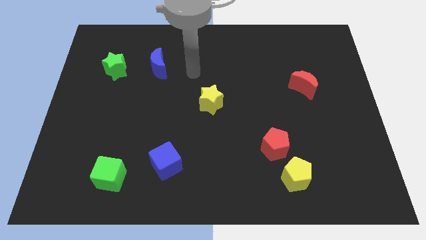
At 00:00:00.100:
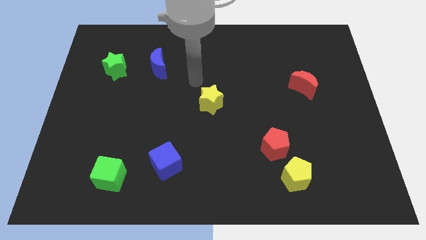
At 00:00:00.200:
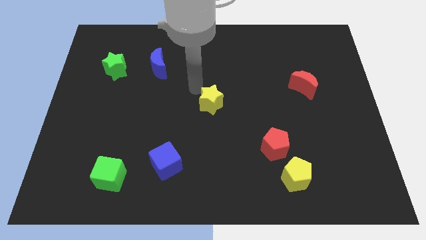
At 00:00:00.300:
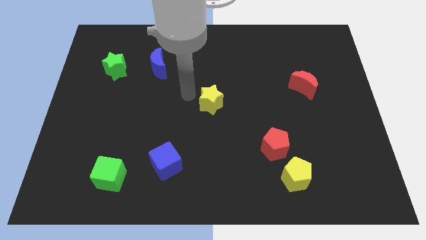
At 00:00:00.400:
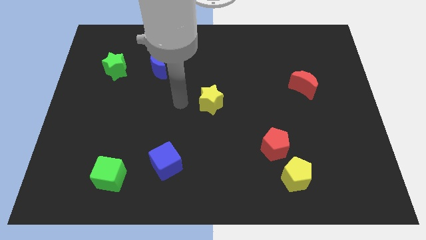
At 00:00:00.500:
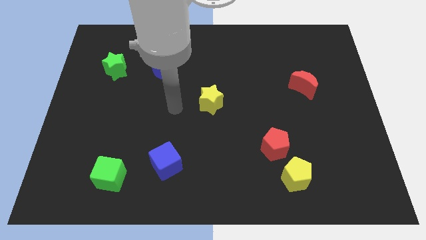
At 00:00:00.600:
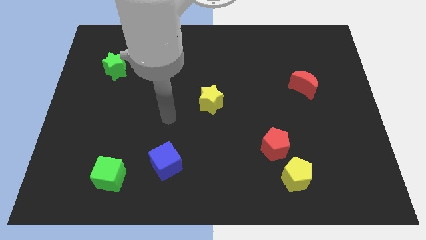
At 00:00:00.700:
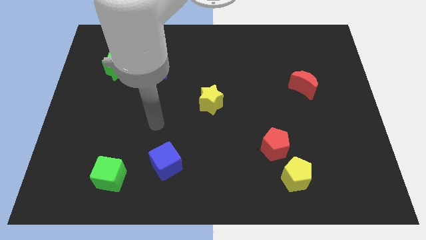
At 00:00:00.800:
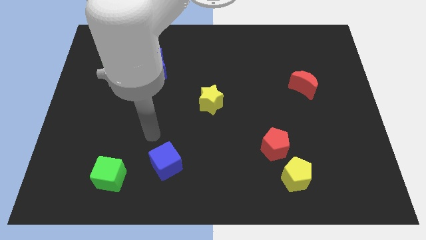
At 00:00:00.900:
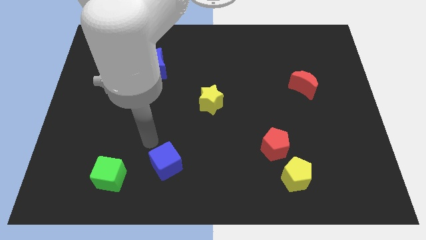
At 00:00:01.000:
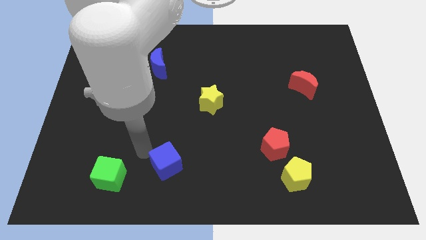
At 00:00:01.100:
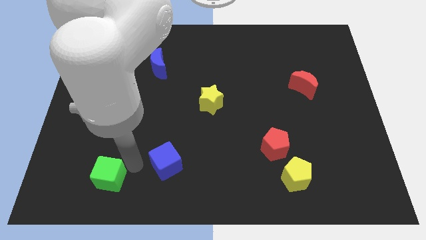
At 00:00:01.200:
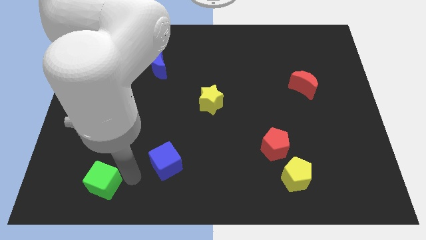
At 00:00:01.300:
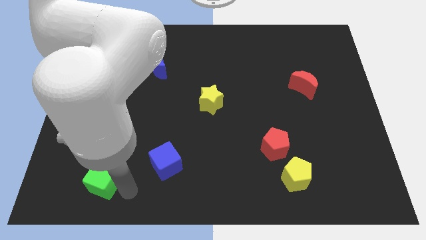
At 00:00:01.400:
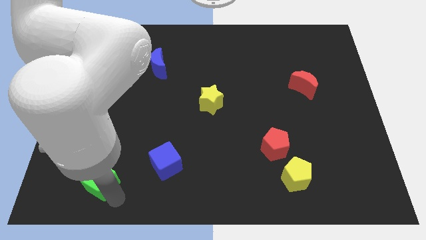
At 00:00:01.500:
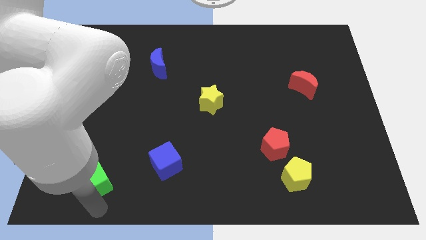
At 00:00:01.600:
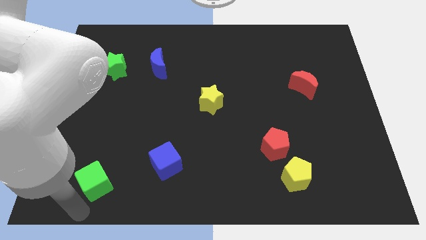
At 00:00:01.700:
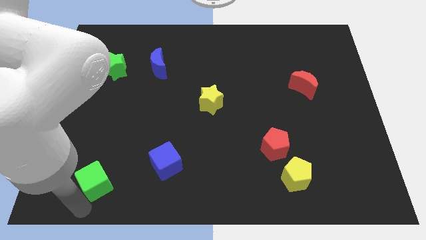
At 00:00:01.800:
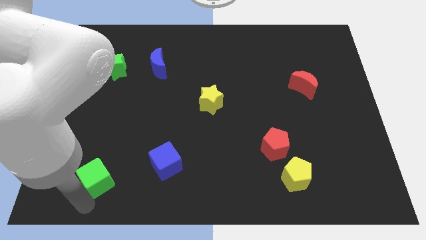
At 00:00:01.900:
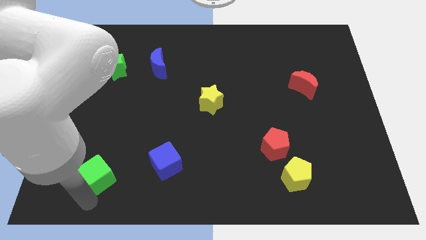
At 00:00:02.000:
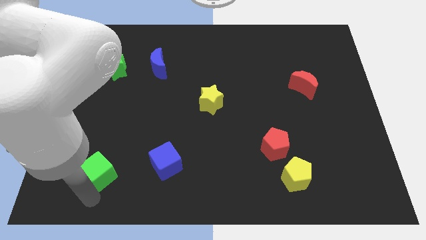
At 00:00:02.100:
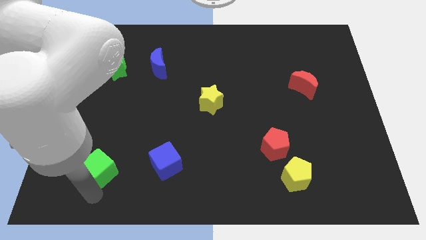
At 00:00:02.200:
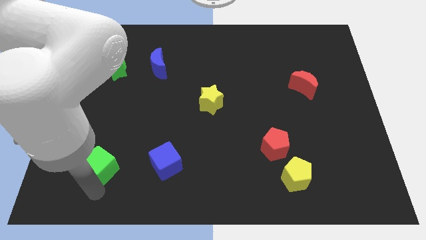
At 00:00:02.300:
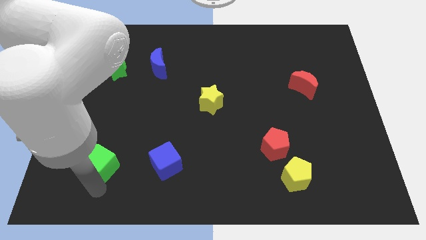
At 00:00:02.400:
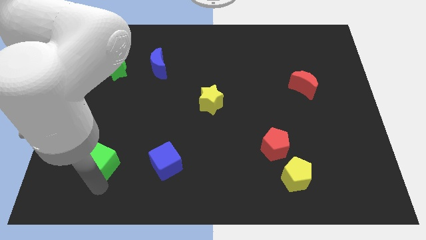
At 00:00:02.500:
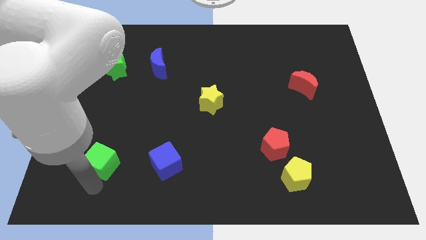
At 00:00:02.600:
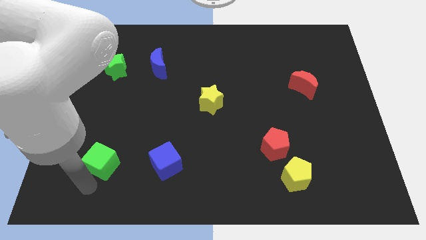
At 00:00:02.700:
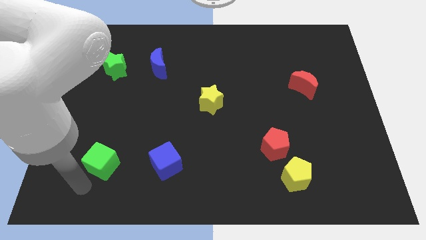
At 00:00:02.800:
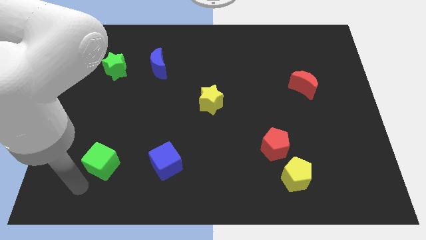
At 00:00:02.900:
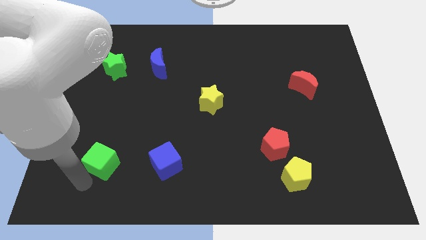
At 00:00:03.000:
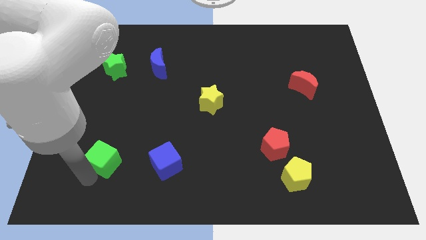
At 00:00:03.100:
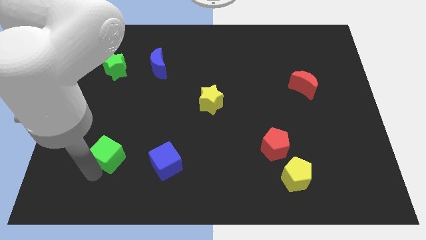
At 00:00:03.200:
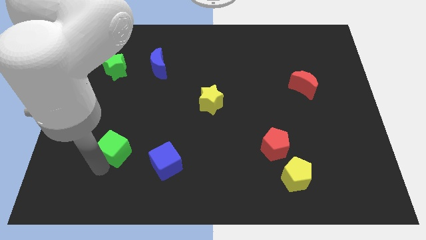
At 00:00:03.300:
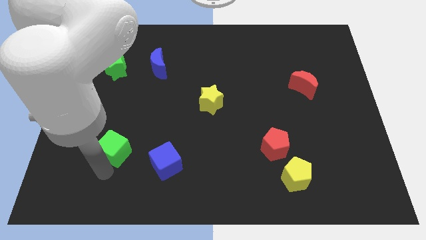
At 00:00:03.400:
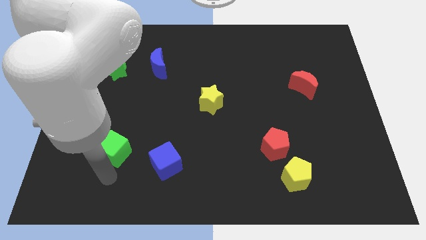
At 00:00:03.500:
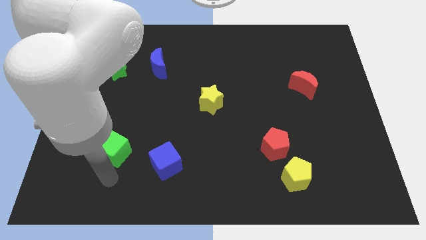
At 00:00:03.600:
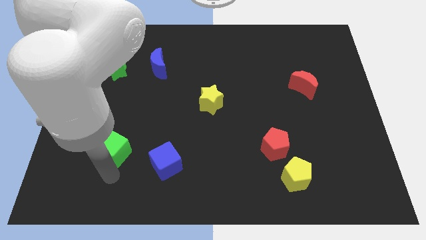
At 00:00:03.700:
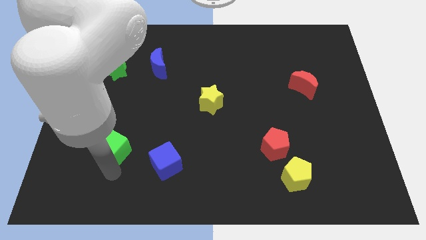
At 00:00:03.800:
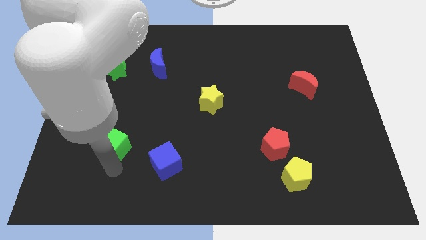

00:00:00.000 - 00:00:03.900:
move the green cube upwards somewhat

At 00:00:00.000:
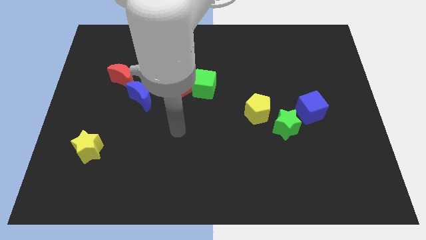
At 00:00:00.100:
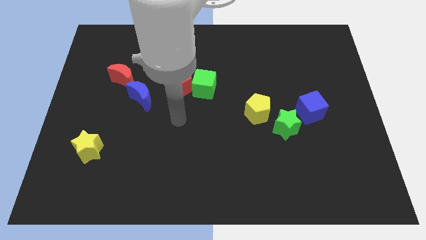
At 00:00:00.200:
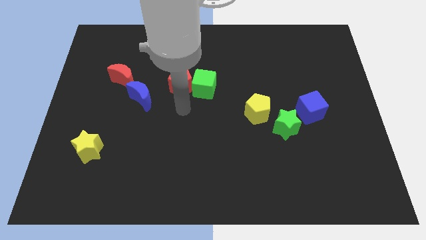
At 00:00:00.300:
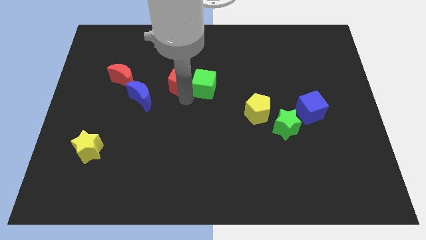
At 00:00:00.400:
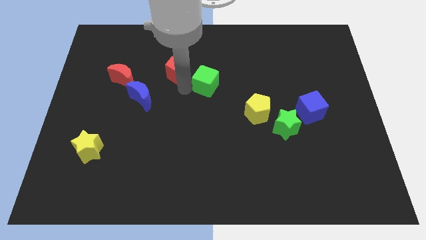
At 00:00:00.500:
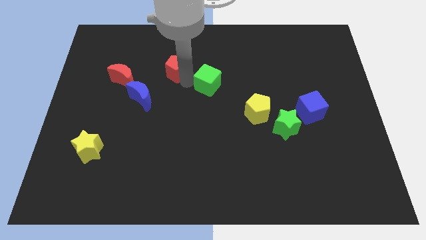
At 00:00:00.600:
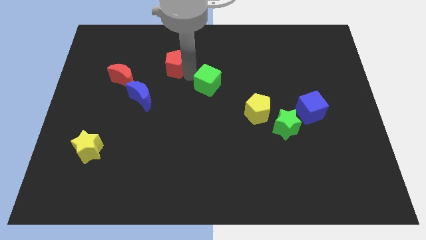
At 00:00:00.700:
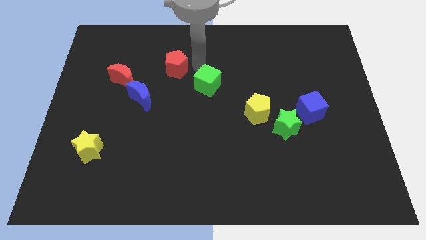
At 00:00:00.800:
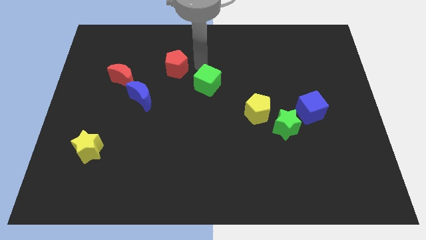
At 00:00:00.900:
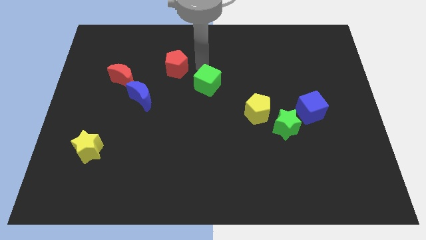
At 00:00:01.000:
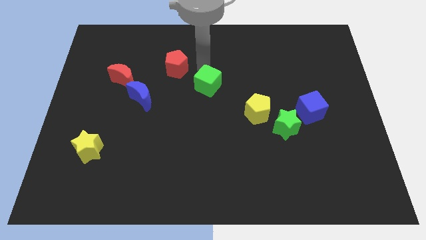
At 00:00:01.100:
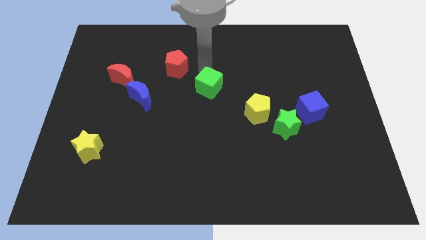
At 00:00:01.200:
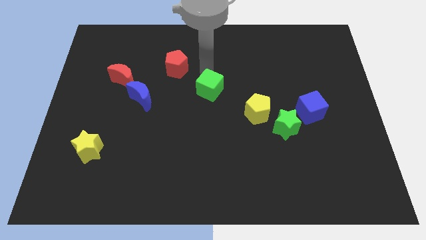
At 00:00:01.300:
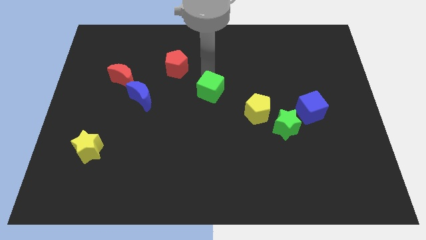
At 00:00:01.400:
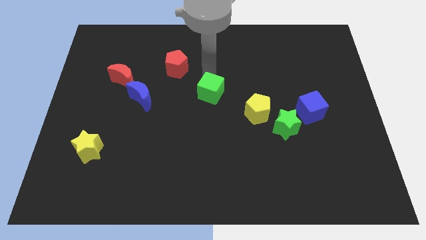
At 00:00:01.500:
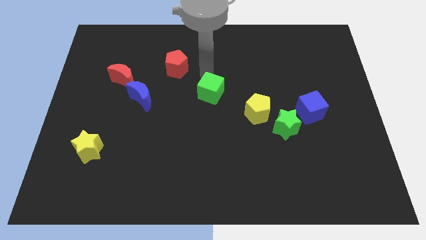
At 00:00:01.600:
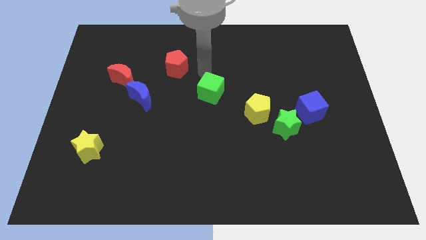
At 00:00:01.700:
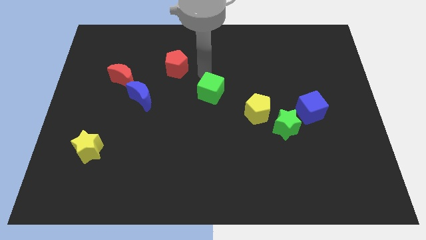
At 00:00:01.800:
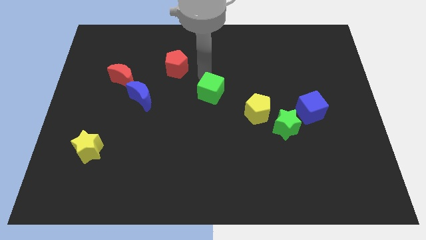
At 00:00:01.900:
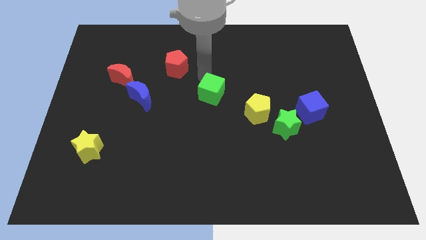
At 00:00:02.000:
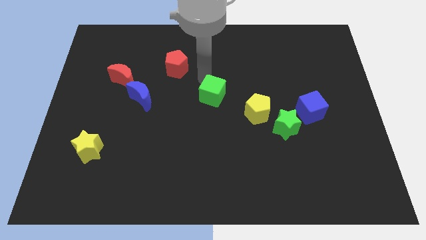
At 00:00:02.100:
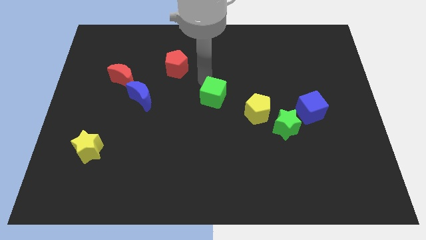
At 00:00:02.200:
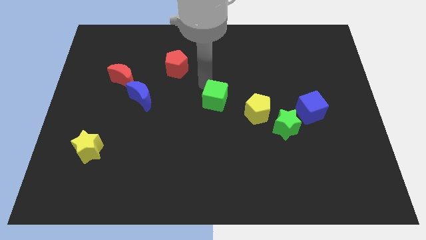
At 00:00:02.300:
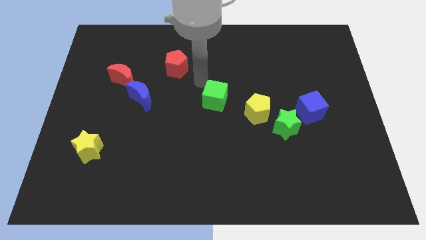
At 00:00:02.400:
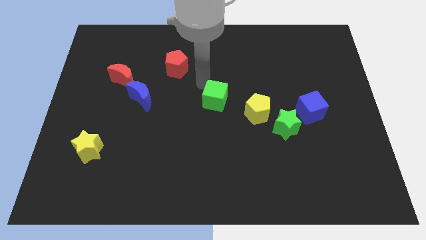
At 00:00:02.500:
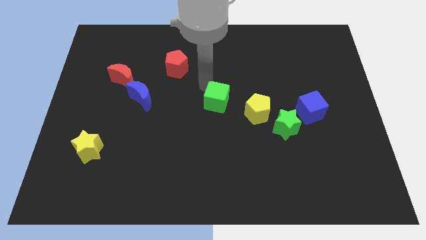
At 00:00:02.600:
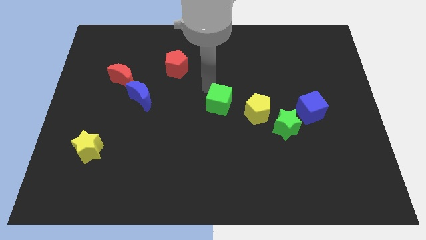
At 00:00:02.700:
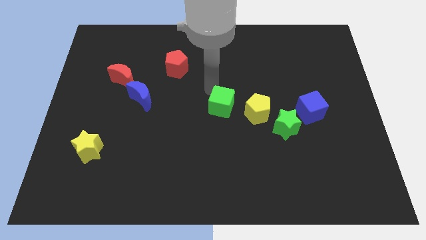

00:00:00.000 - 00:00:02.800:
move the green cube a bit downwards and then right

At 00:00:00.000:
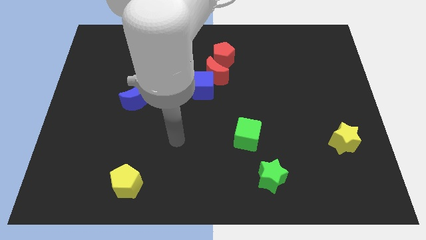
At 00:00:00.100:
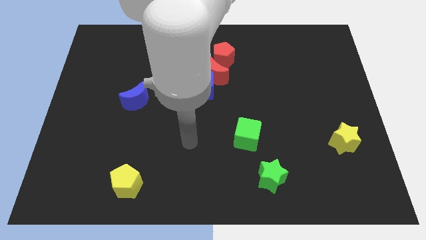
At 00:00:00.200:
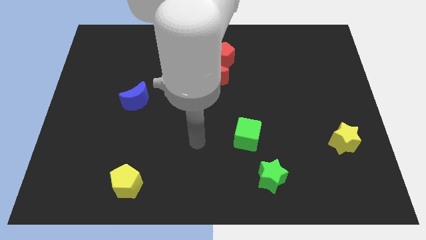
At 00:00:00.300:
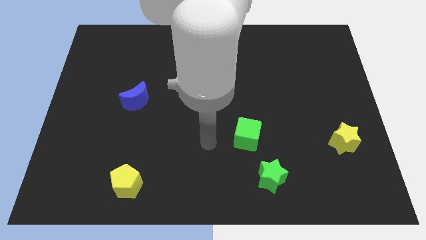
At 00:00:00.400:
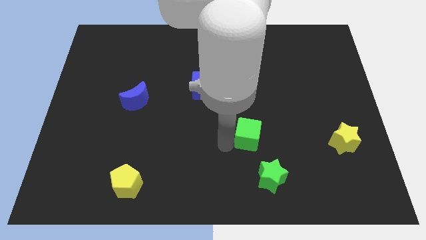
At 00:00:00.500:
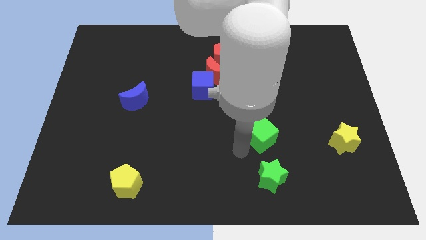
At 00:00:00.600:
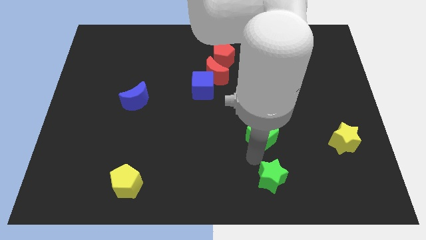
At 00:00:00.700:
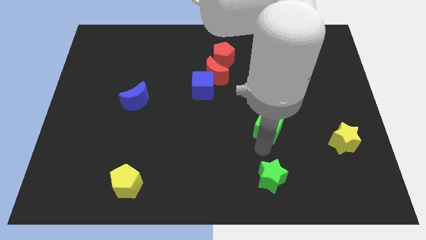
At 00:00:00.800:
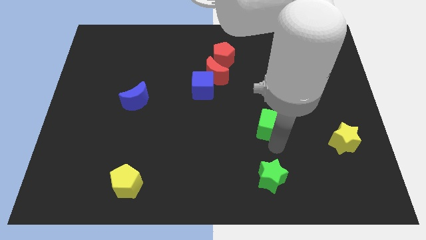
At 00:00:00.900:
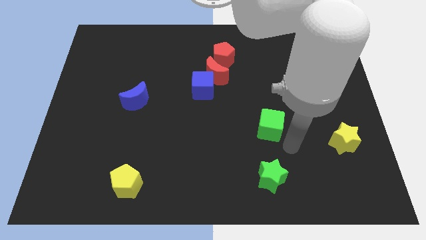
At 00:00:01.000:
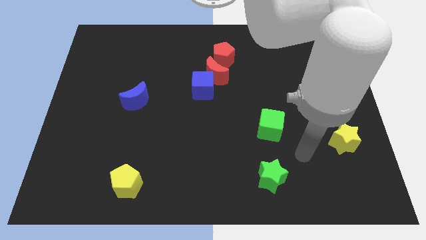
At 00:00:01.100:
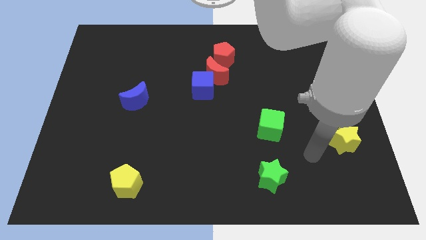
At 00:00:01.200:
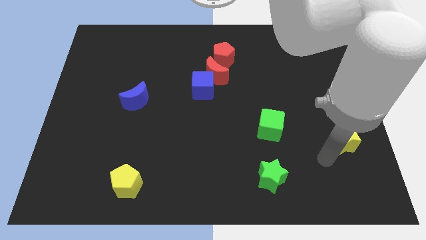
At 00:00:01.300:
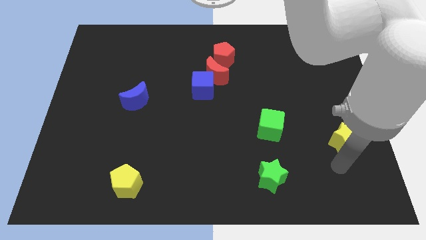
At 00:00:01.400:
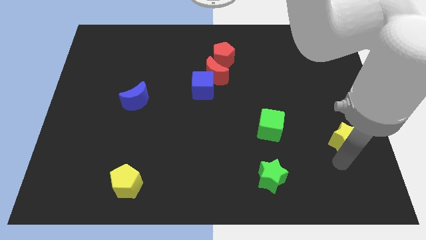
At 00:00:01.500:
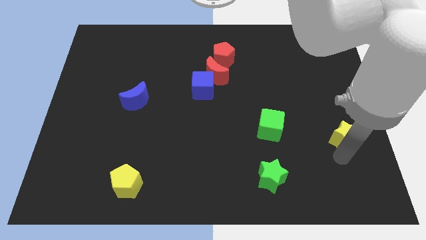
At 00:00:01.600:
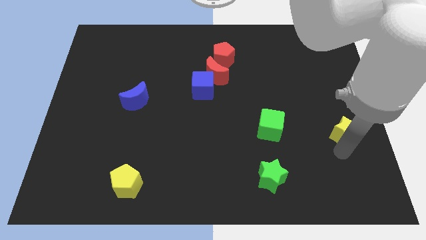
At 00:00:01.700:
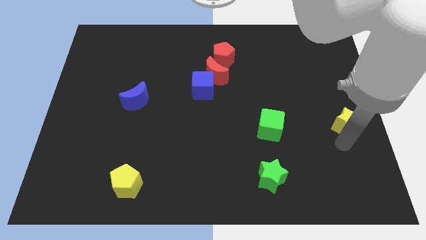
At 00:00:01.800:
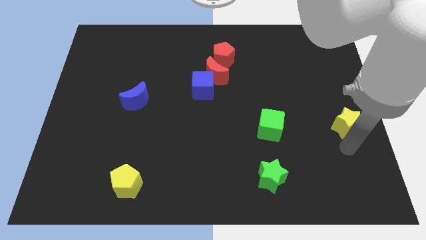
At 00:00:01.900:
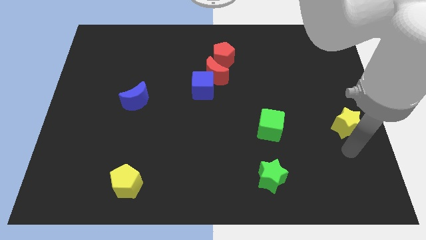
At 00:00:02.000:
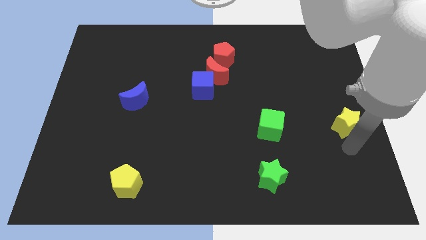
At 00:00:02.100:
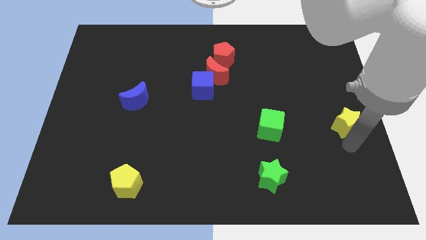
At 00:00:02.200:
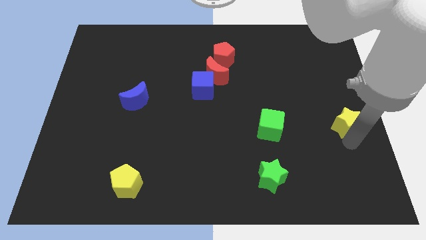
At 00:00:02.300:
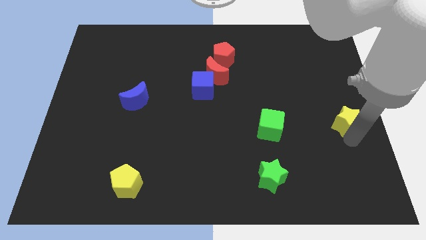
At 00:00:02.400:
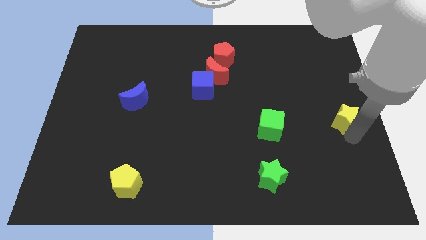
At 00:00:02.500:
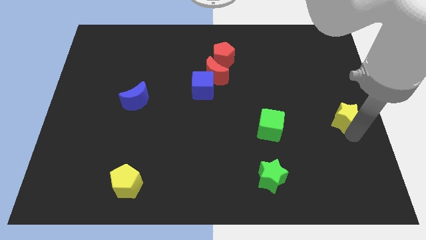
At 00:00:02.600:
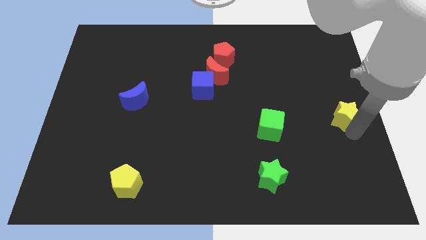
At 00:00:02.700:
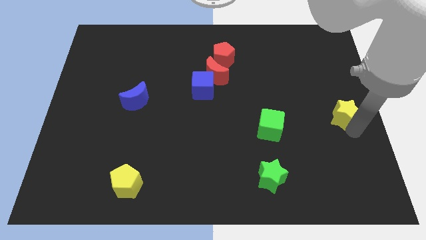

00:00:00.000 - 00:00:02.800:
slightly move the yellow star upwards
